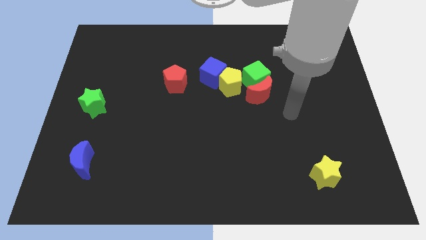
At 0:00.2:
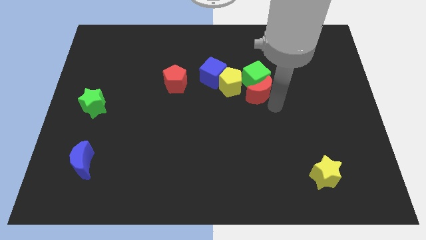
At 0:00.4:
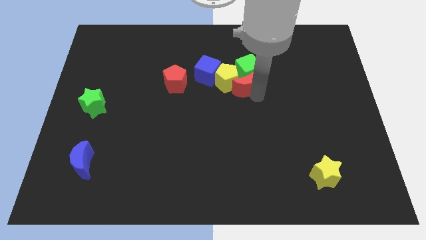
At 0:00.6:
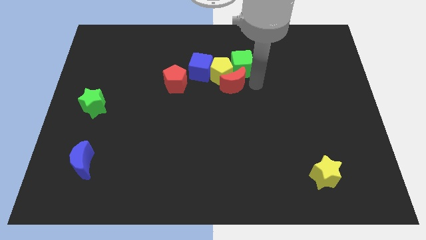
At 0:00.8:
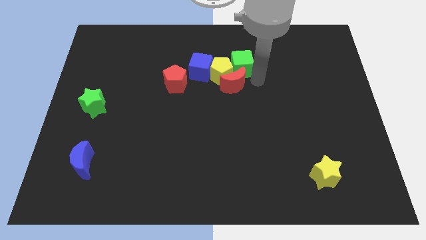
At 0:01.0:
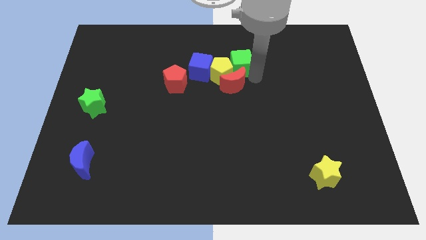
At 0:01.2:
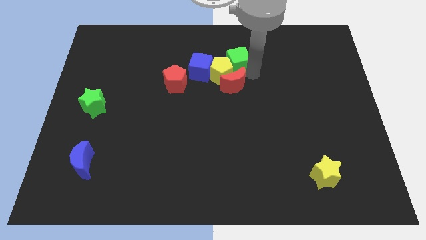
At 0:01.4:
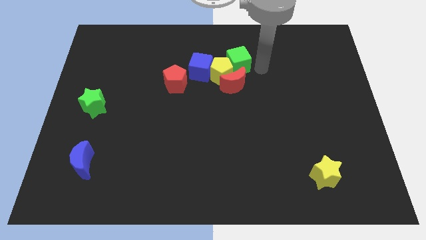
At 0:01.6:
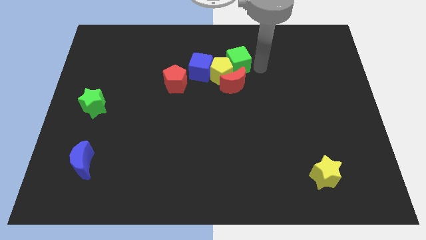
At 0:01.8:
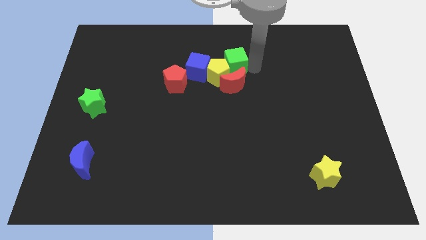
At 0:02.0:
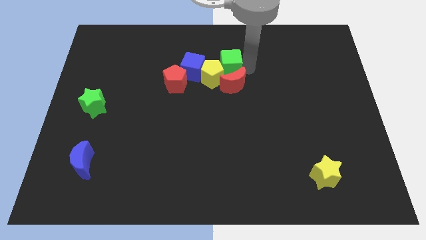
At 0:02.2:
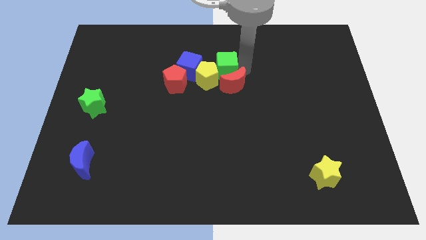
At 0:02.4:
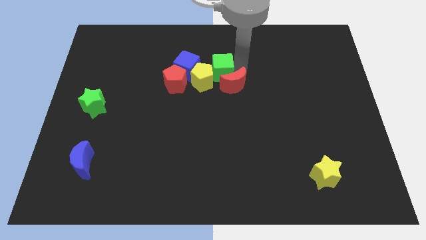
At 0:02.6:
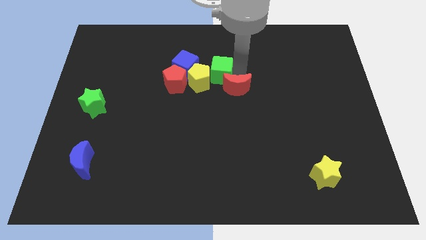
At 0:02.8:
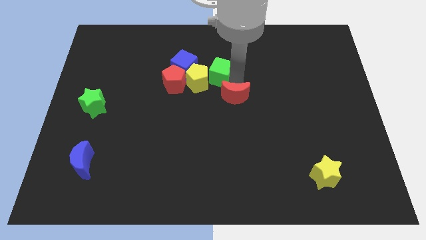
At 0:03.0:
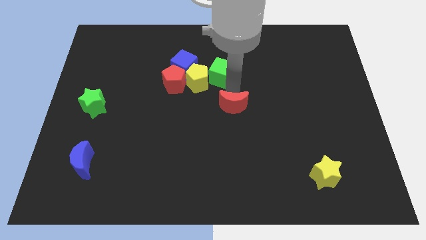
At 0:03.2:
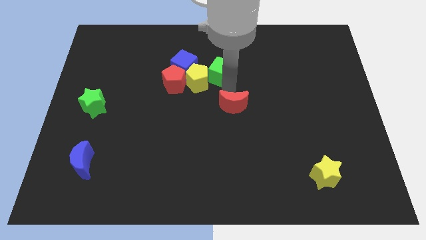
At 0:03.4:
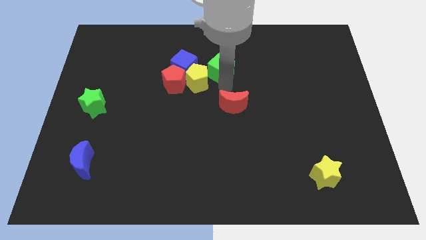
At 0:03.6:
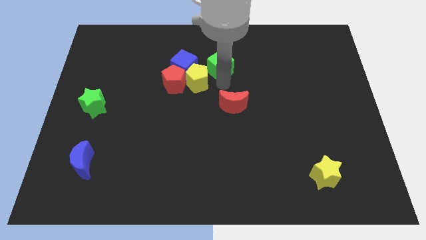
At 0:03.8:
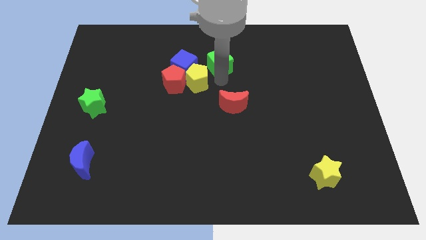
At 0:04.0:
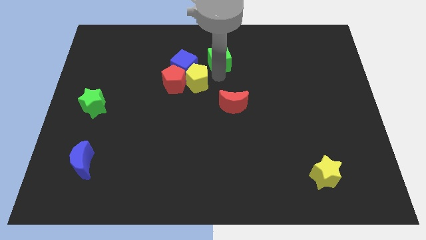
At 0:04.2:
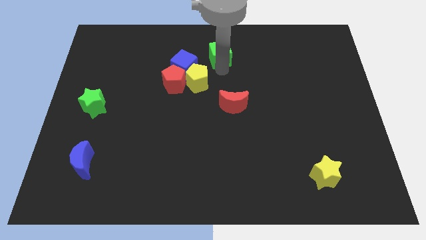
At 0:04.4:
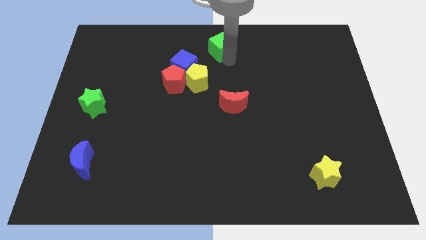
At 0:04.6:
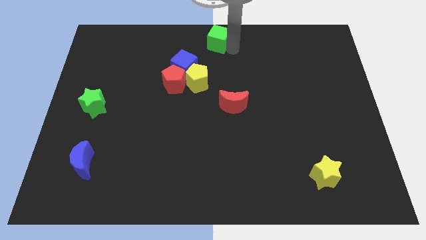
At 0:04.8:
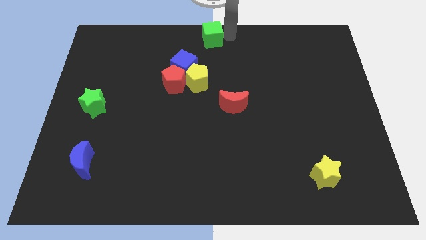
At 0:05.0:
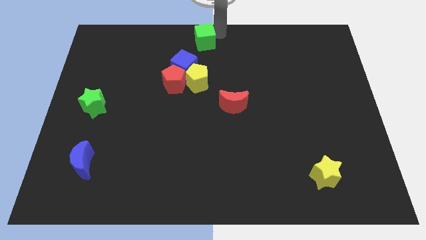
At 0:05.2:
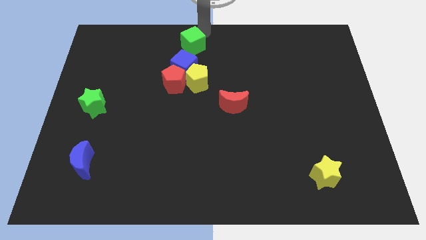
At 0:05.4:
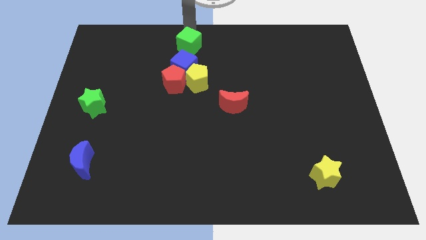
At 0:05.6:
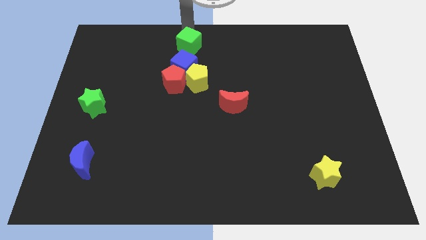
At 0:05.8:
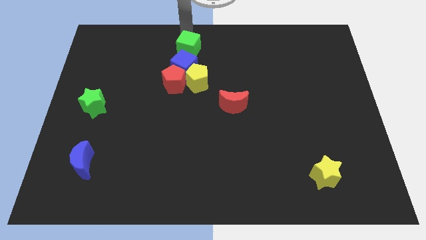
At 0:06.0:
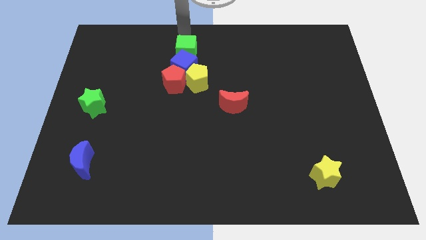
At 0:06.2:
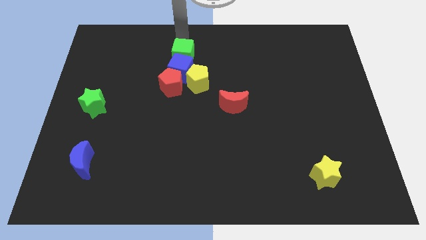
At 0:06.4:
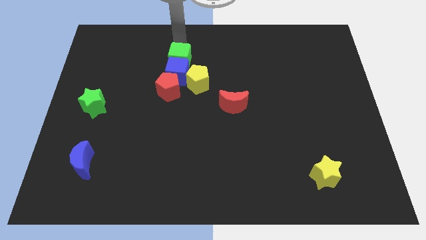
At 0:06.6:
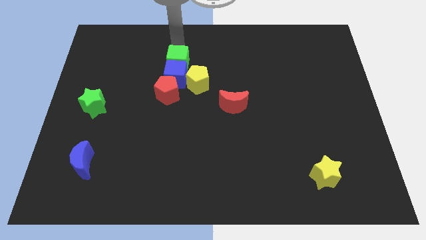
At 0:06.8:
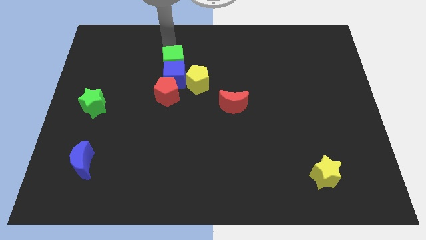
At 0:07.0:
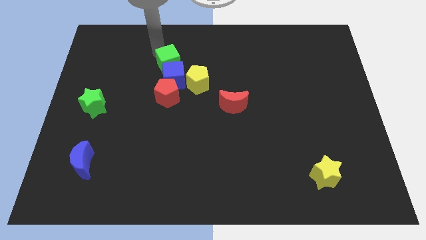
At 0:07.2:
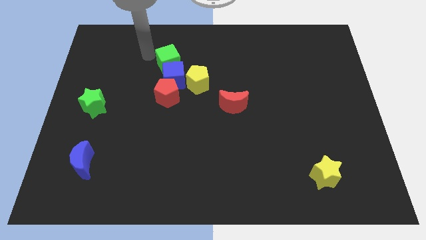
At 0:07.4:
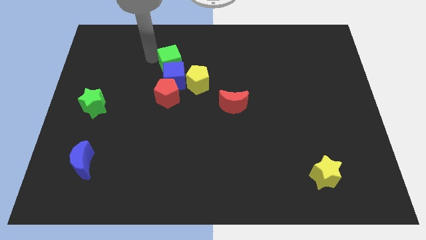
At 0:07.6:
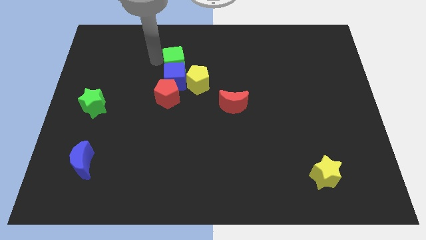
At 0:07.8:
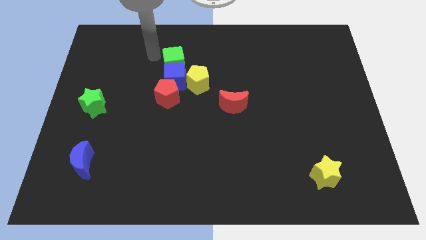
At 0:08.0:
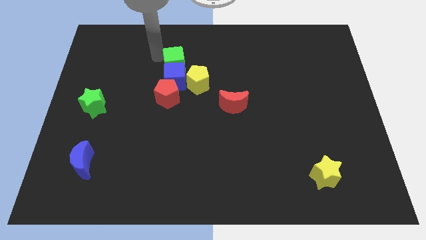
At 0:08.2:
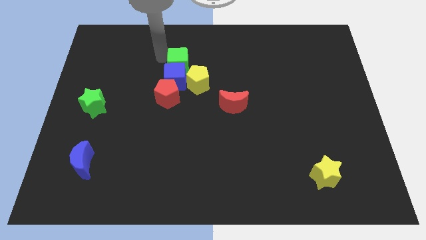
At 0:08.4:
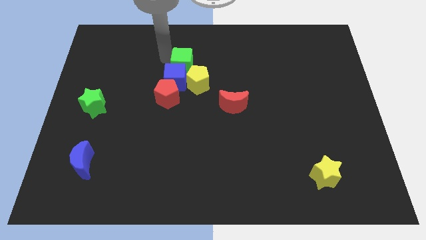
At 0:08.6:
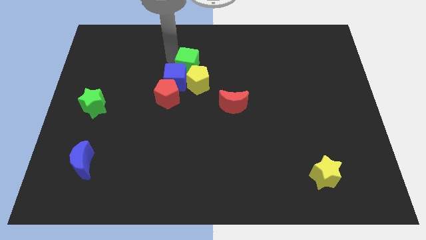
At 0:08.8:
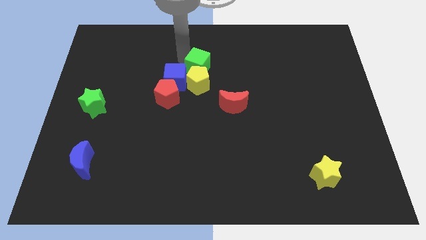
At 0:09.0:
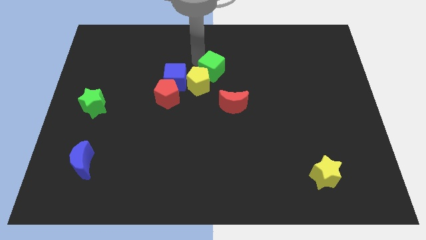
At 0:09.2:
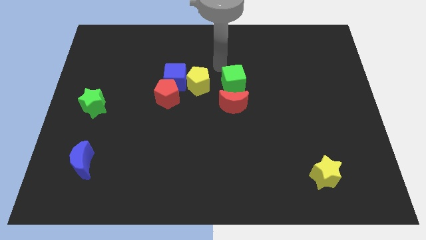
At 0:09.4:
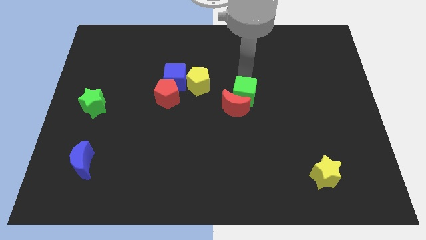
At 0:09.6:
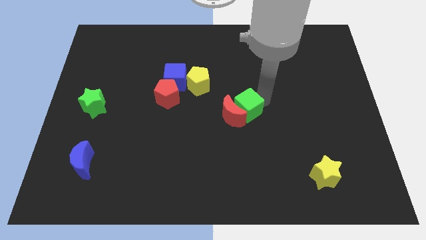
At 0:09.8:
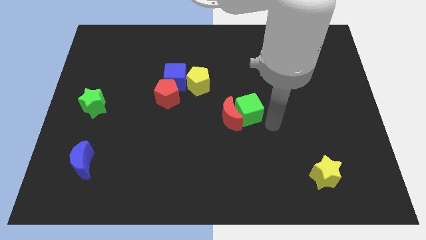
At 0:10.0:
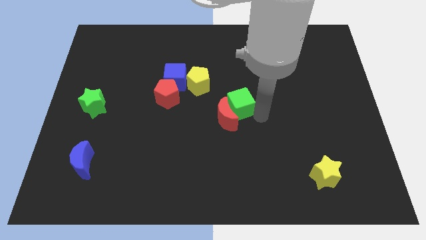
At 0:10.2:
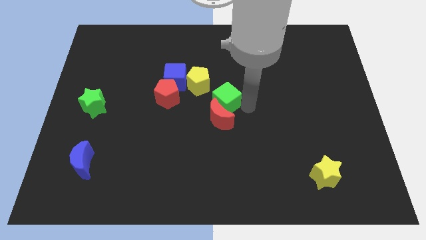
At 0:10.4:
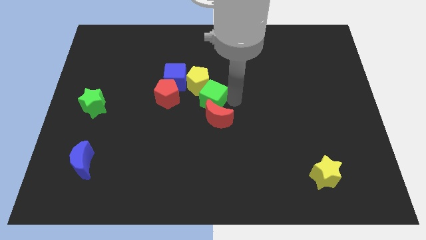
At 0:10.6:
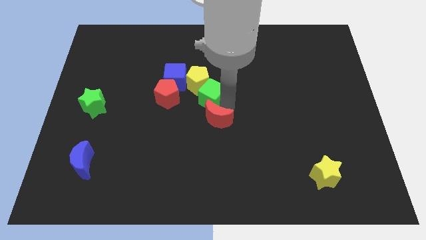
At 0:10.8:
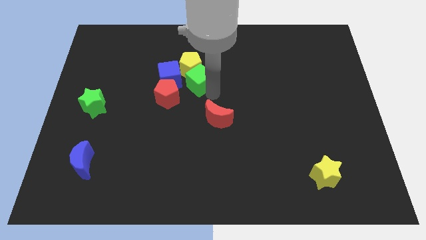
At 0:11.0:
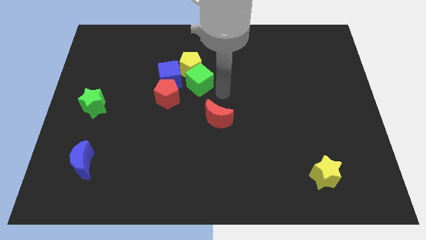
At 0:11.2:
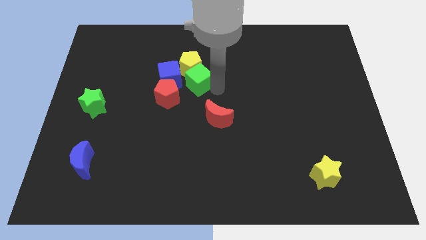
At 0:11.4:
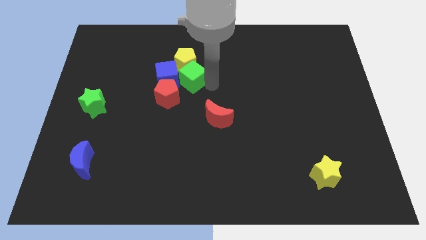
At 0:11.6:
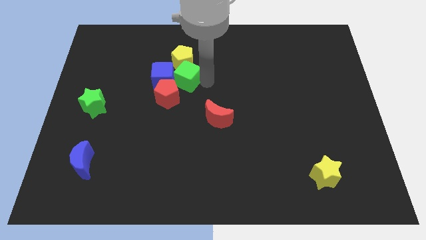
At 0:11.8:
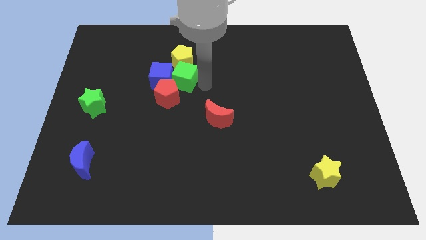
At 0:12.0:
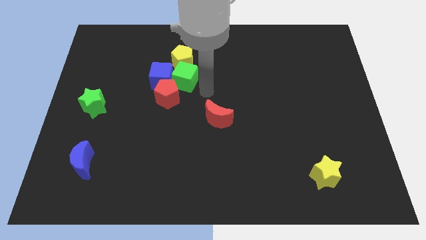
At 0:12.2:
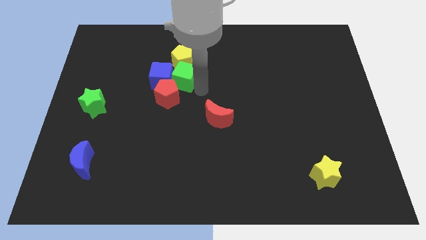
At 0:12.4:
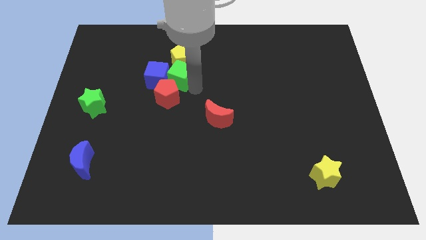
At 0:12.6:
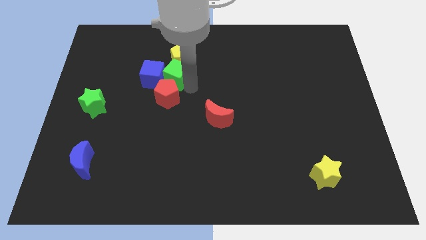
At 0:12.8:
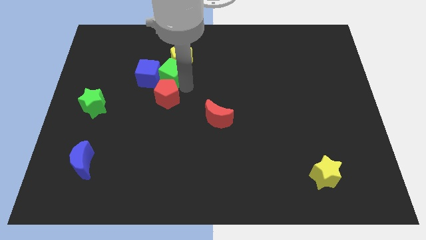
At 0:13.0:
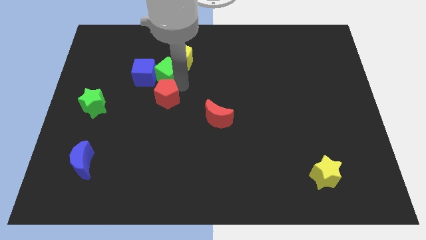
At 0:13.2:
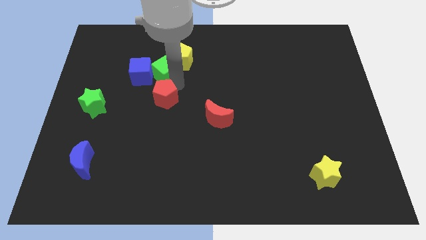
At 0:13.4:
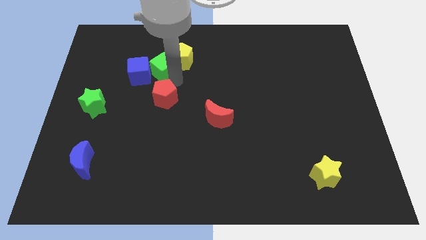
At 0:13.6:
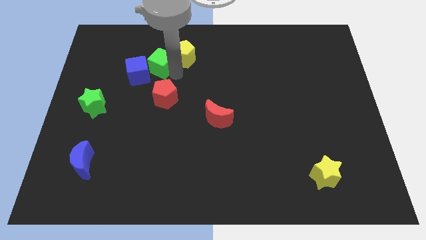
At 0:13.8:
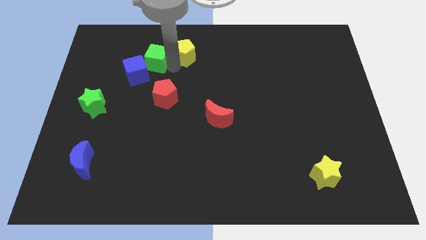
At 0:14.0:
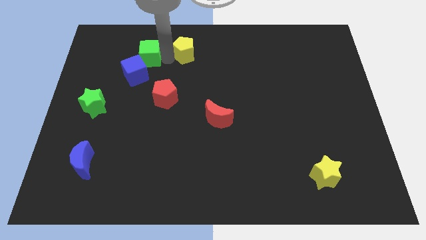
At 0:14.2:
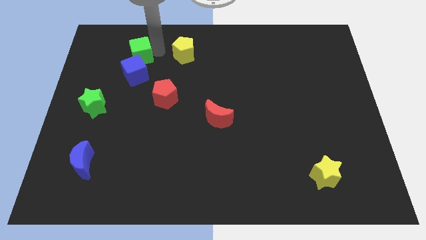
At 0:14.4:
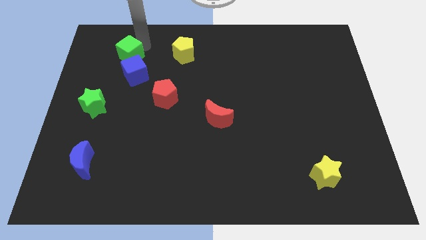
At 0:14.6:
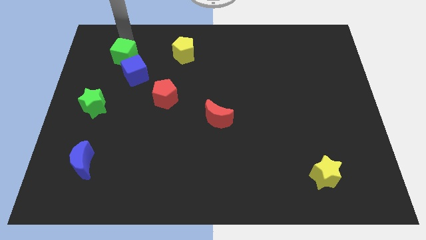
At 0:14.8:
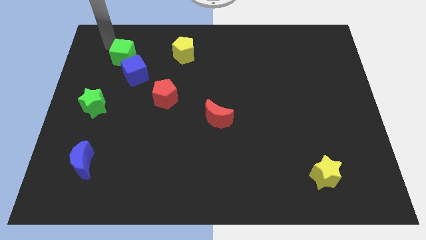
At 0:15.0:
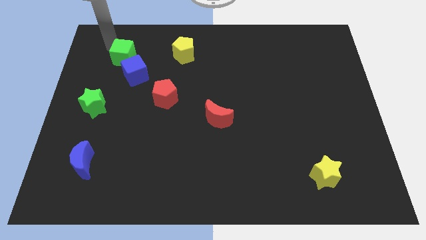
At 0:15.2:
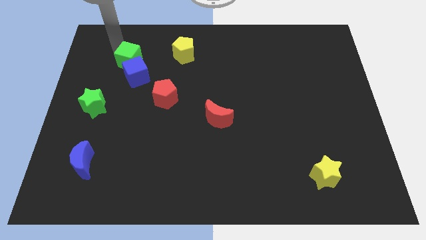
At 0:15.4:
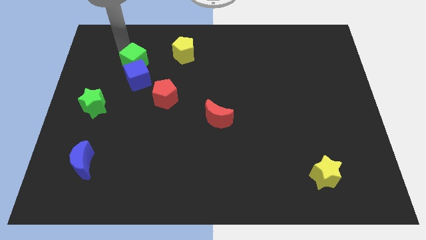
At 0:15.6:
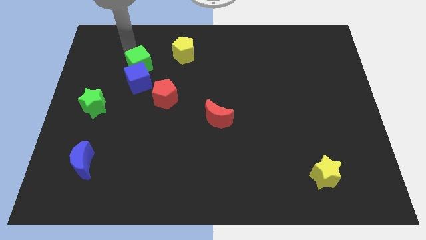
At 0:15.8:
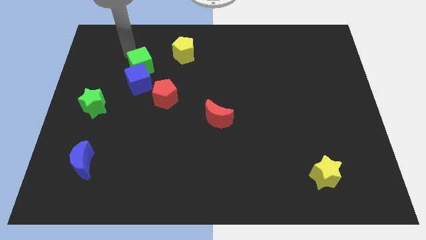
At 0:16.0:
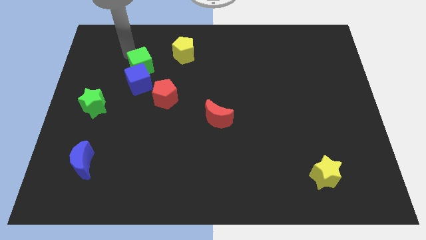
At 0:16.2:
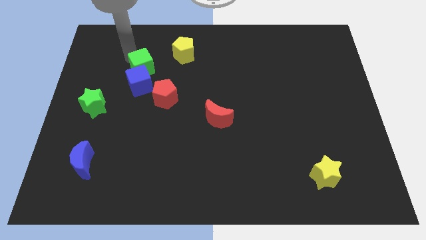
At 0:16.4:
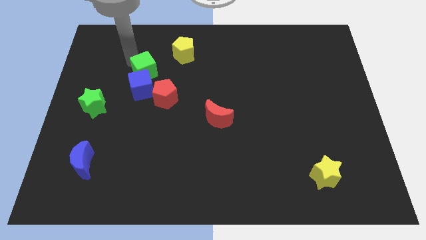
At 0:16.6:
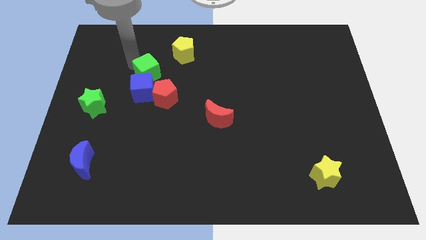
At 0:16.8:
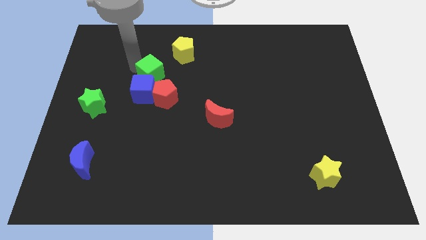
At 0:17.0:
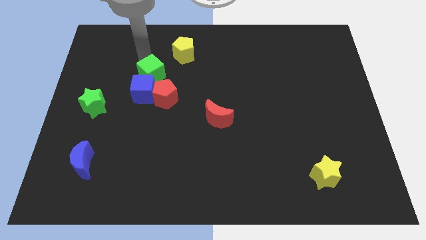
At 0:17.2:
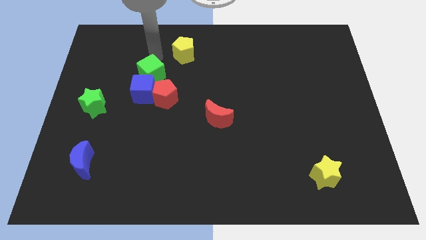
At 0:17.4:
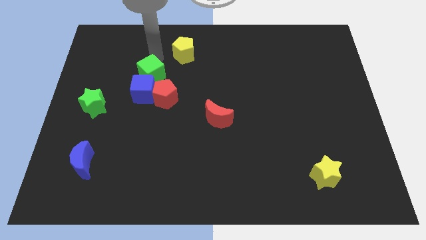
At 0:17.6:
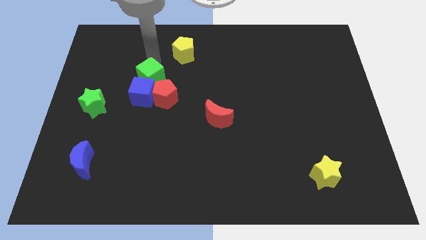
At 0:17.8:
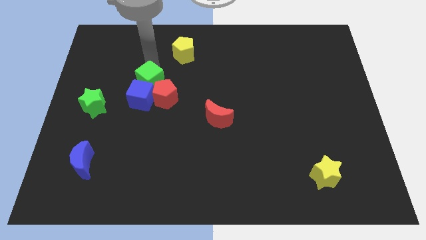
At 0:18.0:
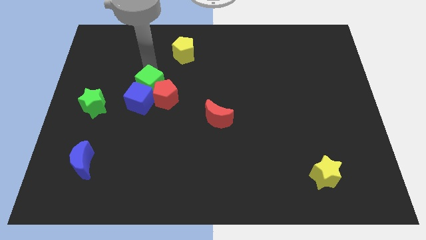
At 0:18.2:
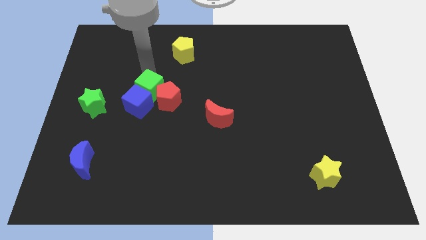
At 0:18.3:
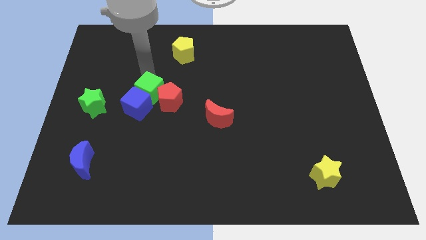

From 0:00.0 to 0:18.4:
slide the green cube to the right side of the green star
